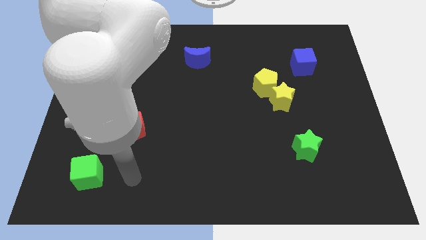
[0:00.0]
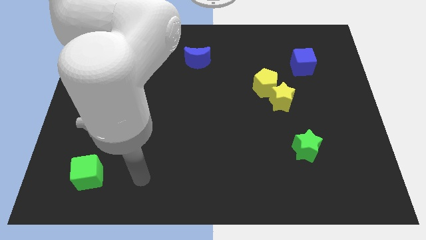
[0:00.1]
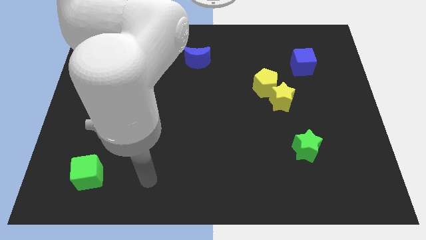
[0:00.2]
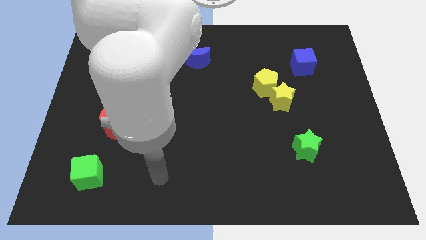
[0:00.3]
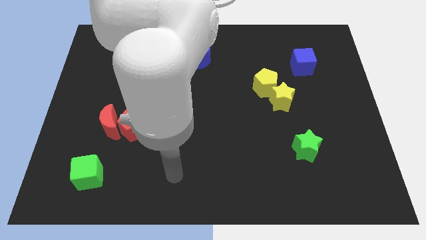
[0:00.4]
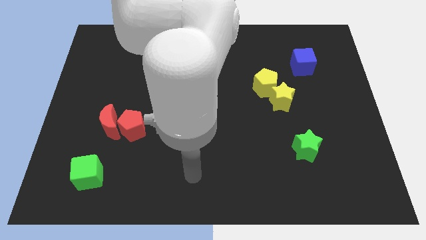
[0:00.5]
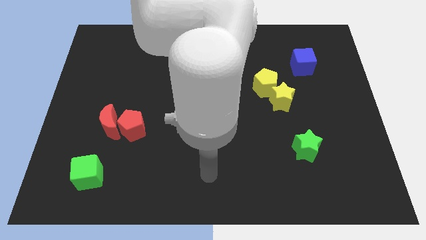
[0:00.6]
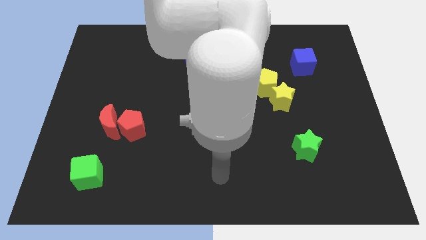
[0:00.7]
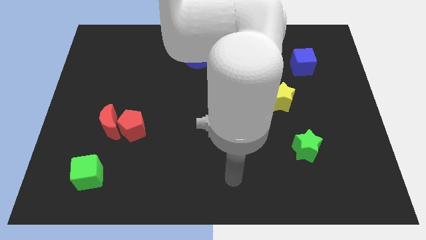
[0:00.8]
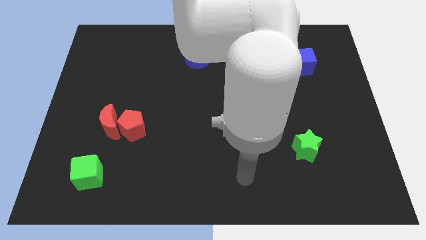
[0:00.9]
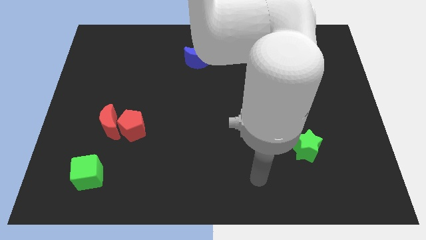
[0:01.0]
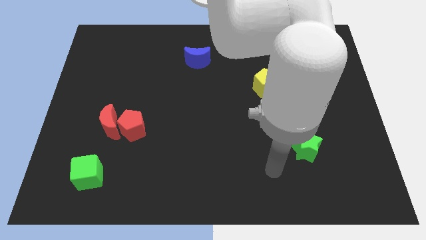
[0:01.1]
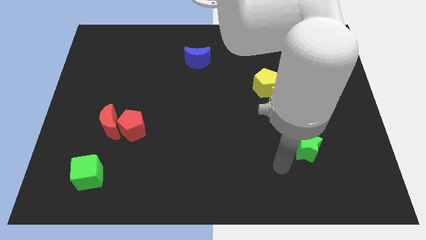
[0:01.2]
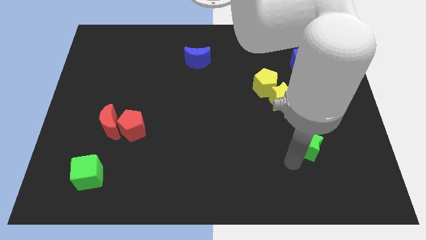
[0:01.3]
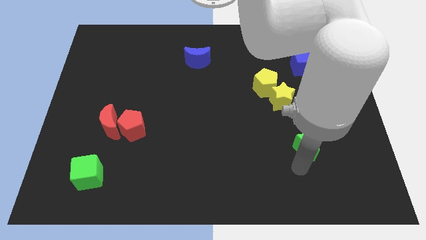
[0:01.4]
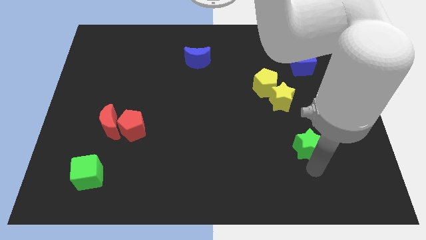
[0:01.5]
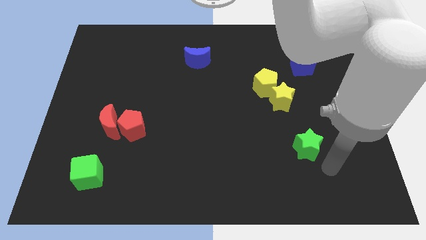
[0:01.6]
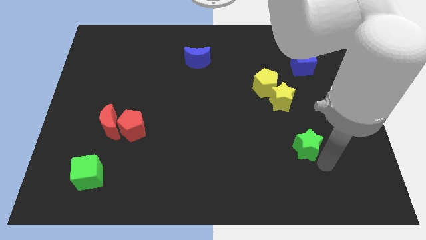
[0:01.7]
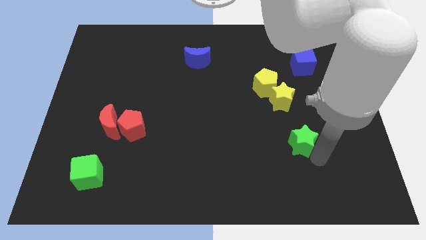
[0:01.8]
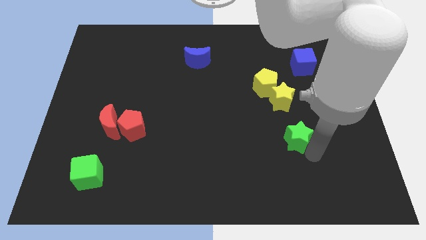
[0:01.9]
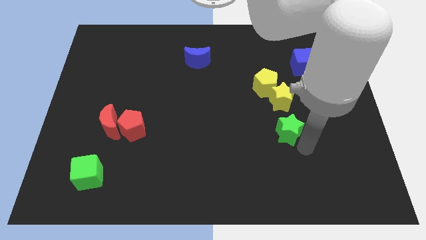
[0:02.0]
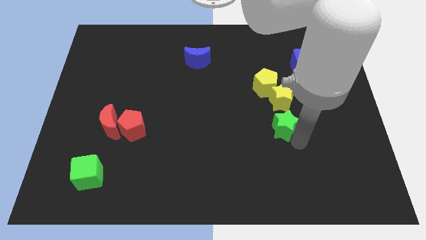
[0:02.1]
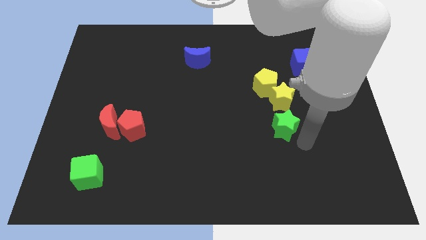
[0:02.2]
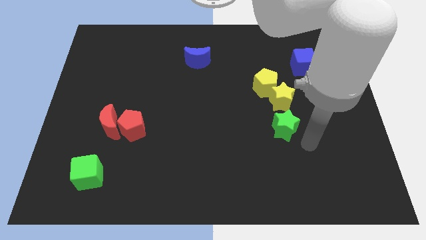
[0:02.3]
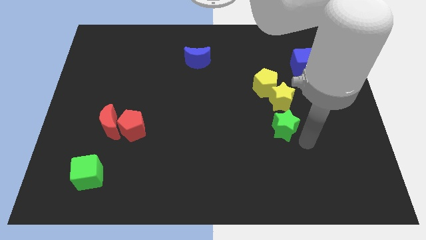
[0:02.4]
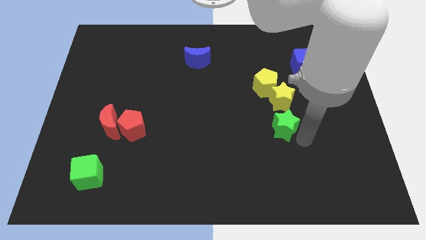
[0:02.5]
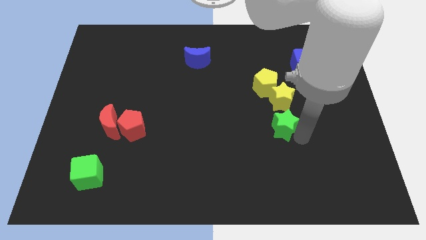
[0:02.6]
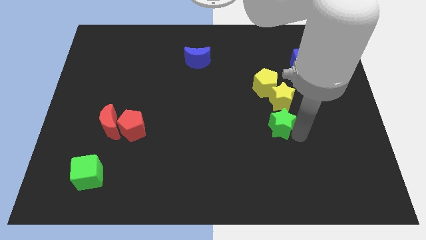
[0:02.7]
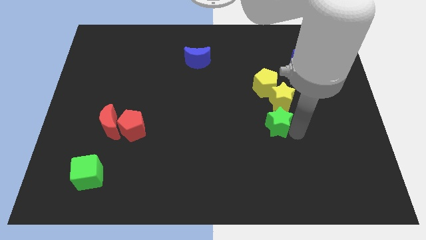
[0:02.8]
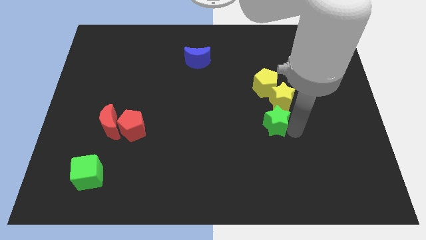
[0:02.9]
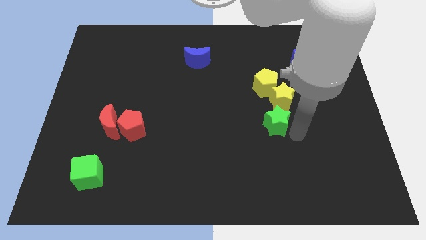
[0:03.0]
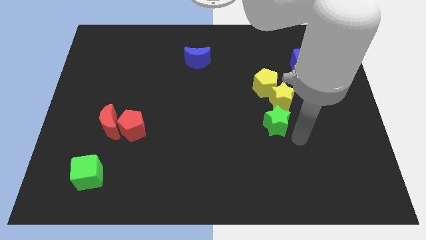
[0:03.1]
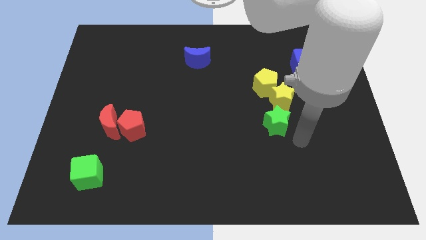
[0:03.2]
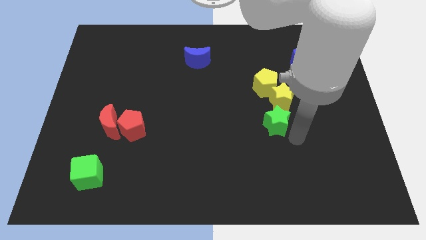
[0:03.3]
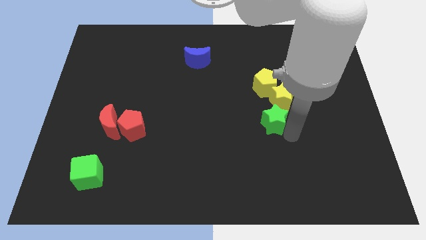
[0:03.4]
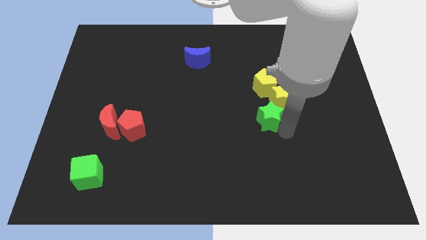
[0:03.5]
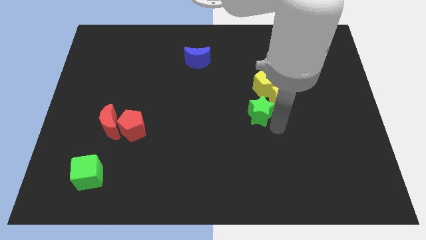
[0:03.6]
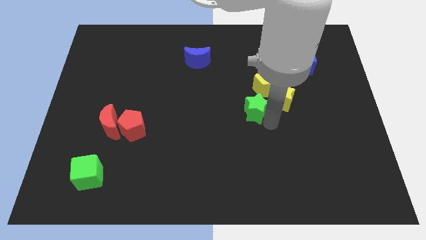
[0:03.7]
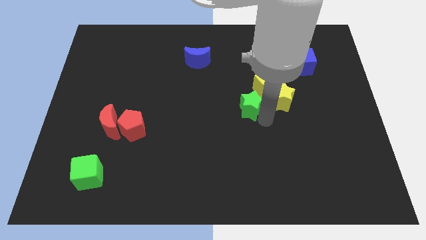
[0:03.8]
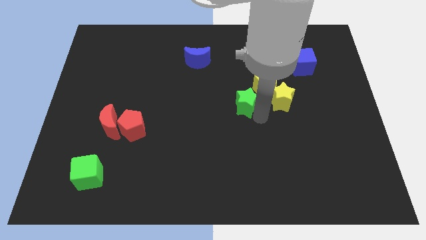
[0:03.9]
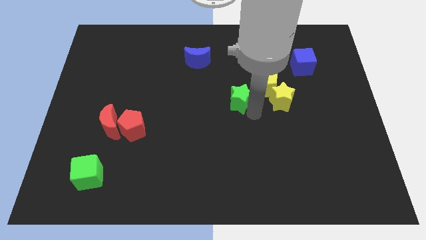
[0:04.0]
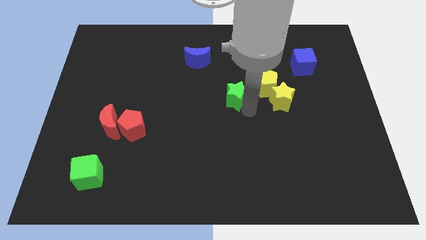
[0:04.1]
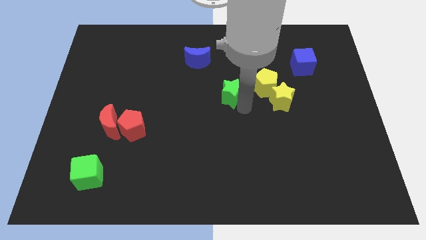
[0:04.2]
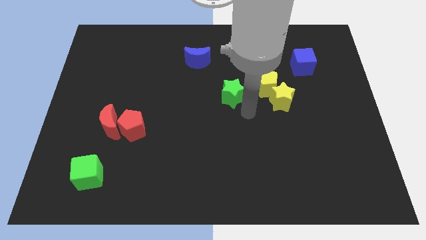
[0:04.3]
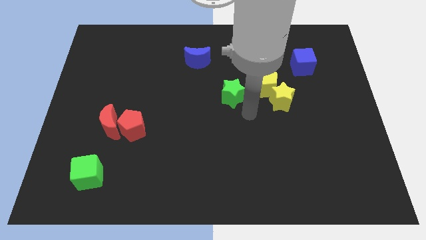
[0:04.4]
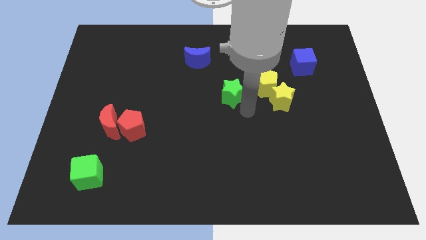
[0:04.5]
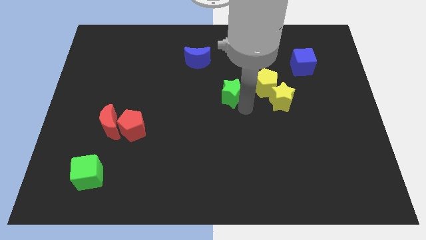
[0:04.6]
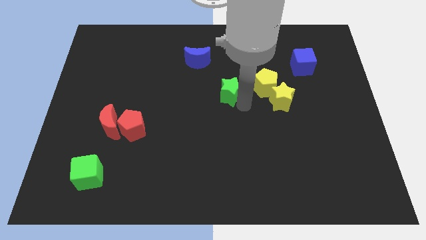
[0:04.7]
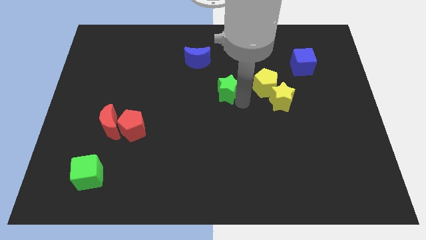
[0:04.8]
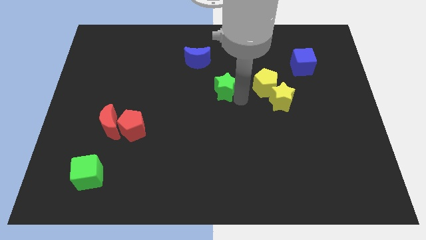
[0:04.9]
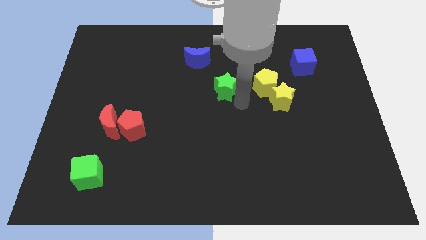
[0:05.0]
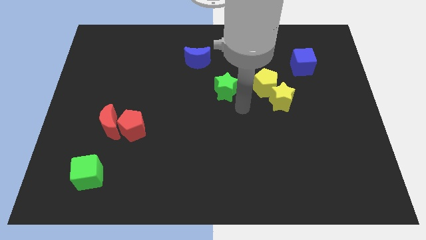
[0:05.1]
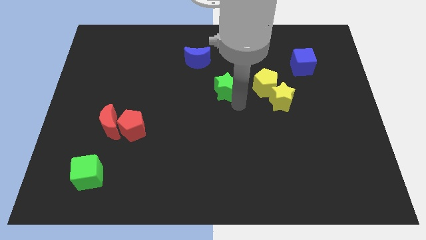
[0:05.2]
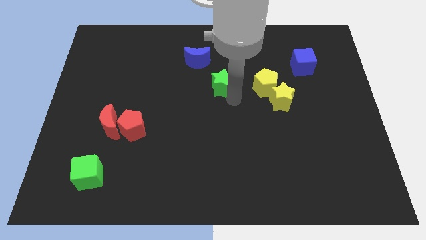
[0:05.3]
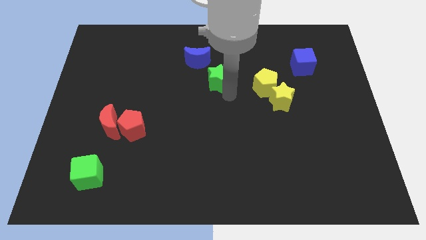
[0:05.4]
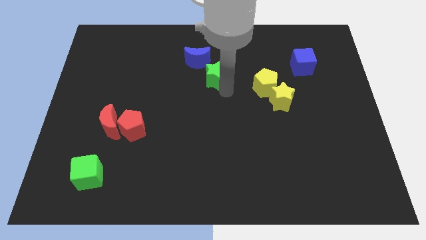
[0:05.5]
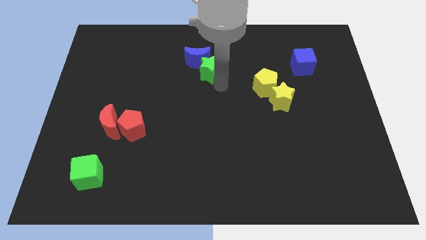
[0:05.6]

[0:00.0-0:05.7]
push the green star to the blue moon

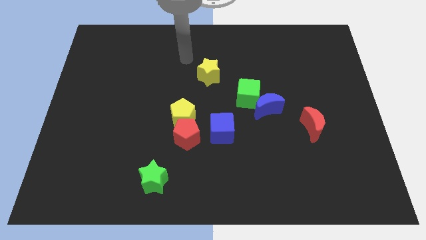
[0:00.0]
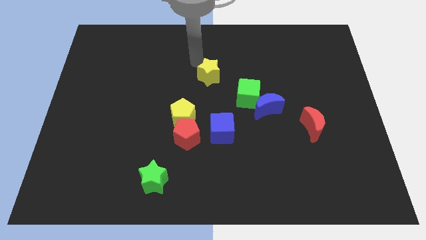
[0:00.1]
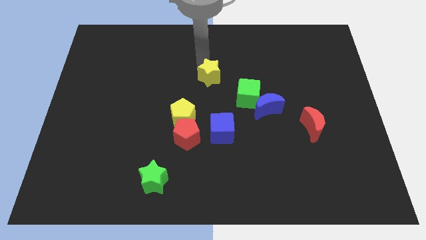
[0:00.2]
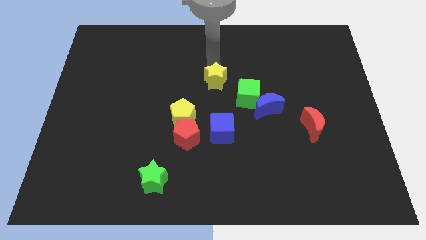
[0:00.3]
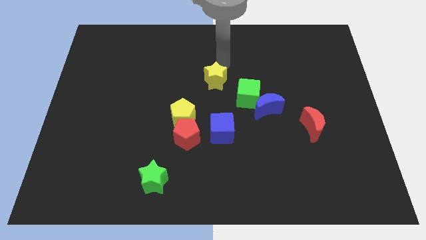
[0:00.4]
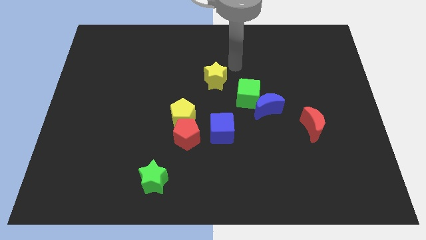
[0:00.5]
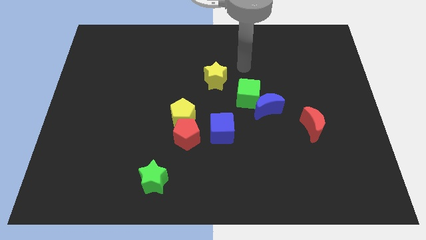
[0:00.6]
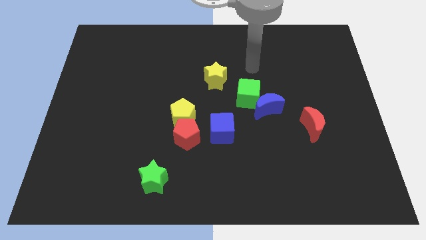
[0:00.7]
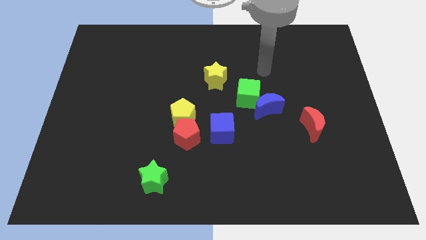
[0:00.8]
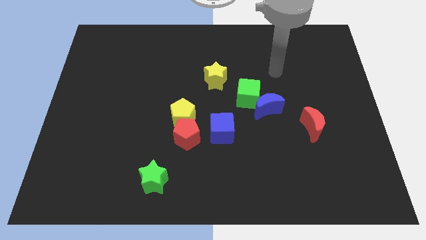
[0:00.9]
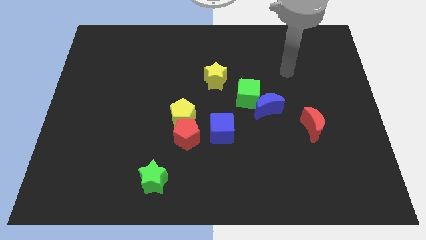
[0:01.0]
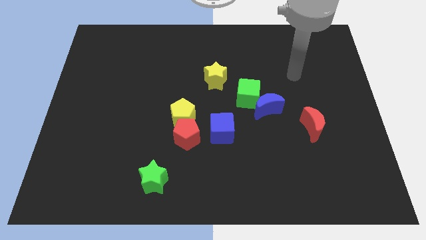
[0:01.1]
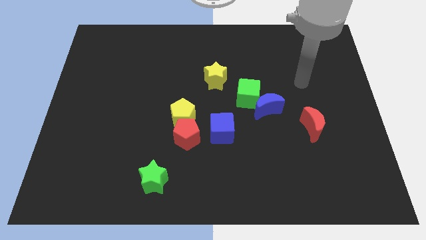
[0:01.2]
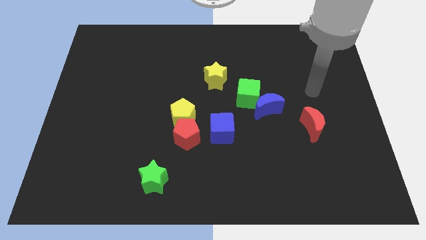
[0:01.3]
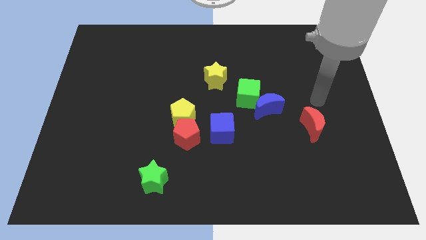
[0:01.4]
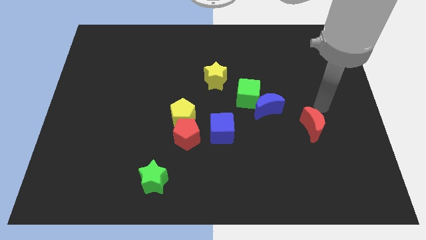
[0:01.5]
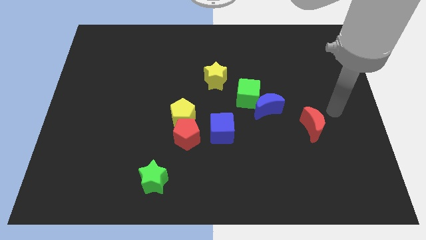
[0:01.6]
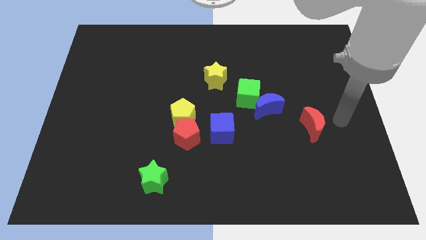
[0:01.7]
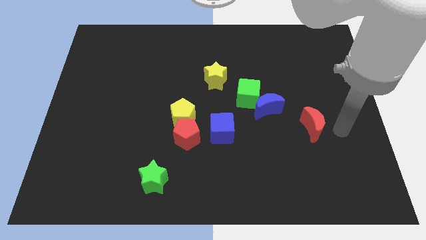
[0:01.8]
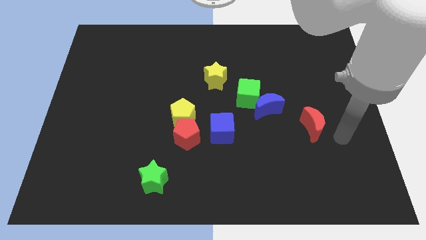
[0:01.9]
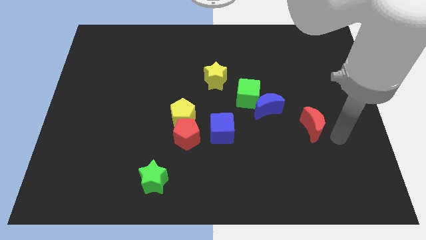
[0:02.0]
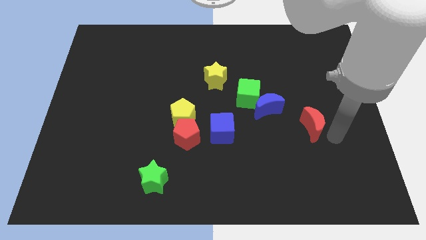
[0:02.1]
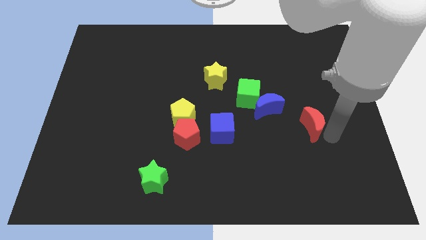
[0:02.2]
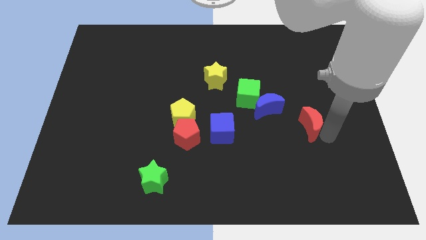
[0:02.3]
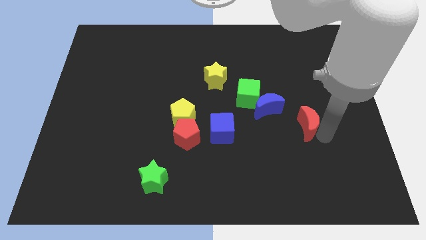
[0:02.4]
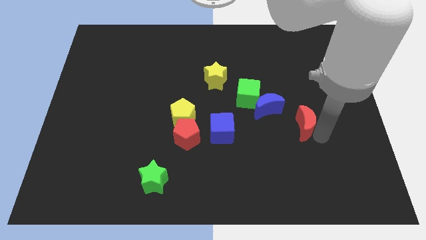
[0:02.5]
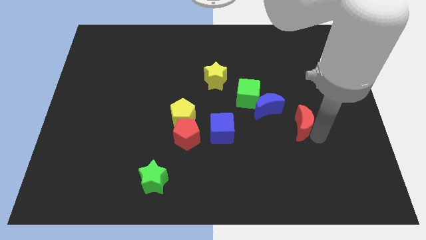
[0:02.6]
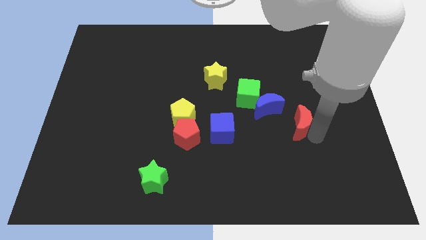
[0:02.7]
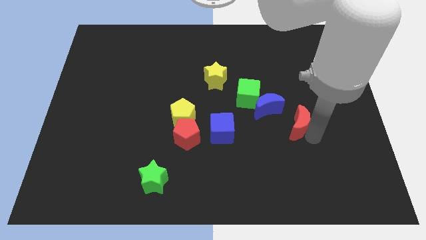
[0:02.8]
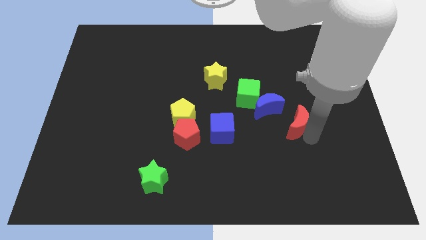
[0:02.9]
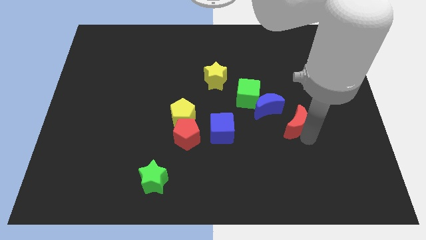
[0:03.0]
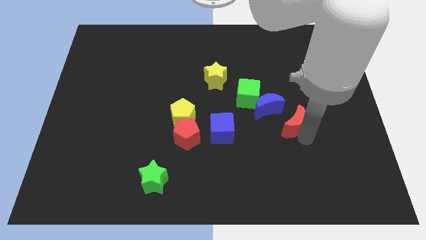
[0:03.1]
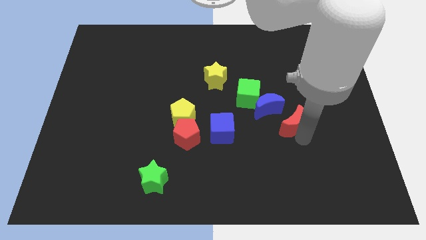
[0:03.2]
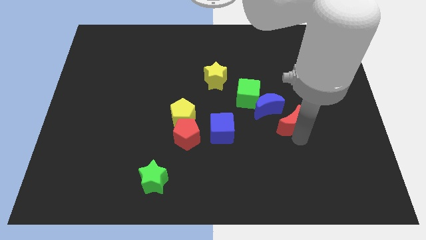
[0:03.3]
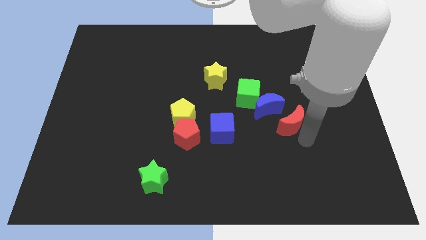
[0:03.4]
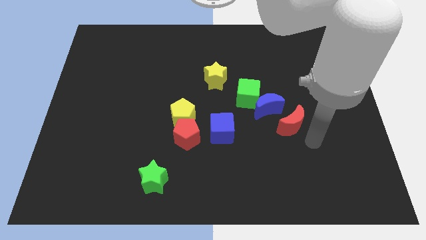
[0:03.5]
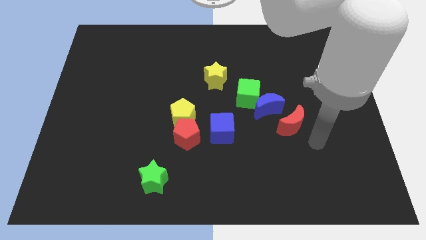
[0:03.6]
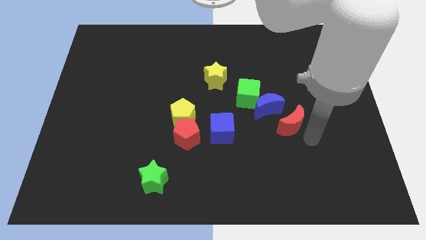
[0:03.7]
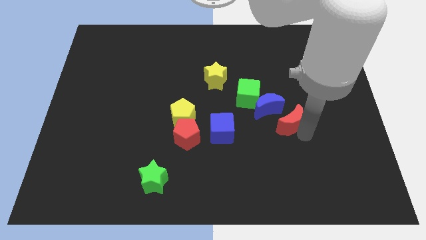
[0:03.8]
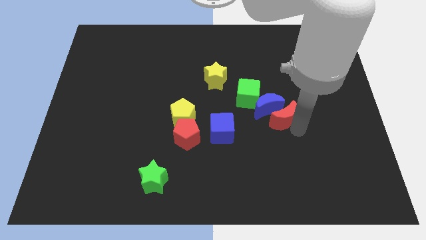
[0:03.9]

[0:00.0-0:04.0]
put the red moon to the blue moon
